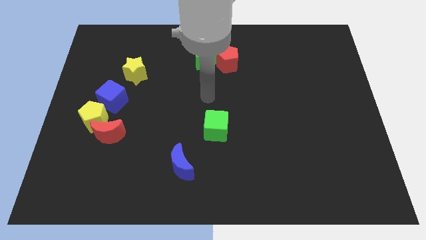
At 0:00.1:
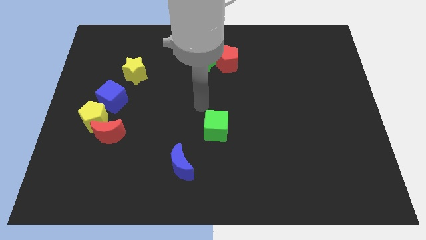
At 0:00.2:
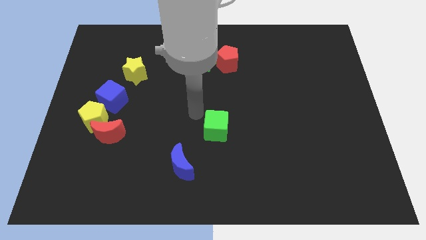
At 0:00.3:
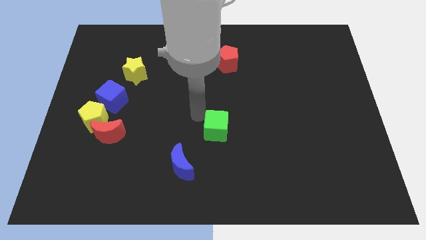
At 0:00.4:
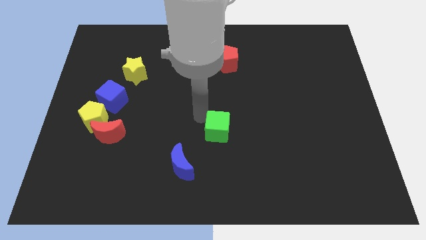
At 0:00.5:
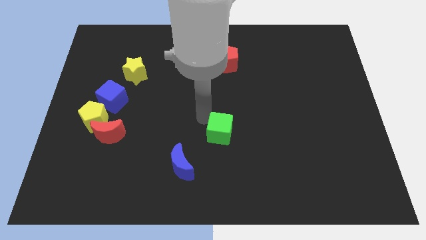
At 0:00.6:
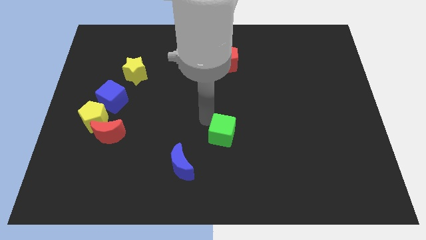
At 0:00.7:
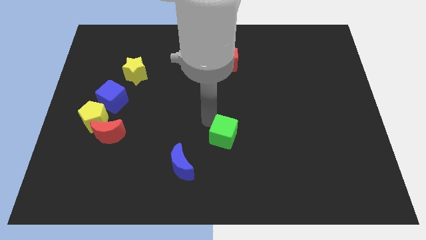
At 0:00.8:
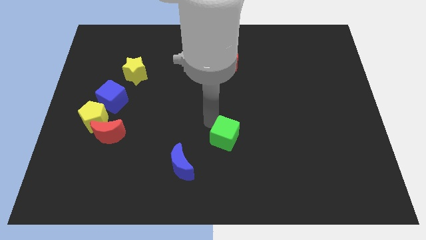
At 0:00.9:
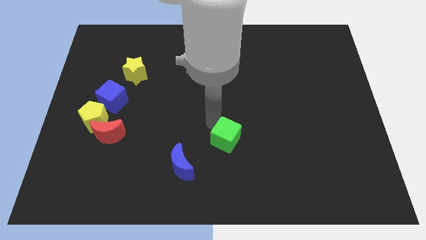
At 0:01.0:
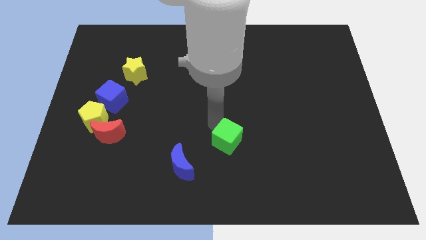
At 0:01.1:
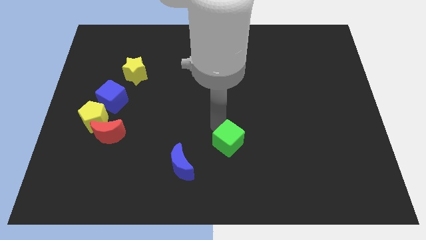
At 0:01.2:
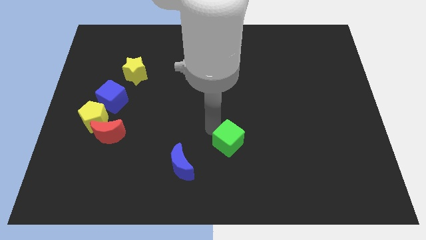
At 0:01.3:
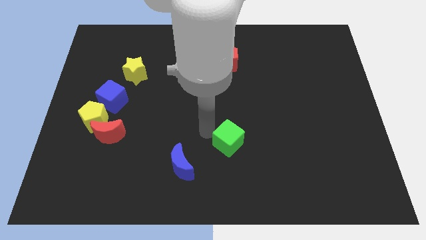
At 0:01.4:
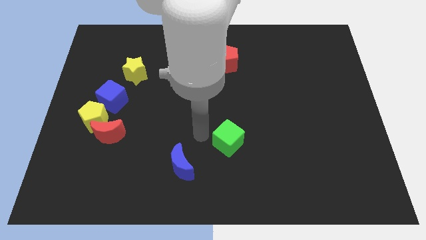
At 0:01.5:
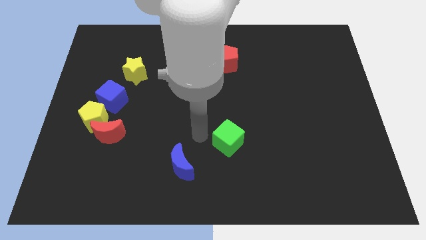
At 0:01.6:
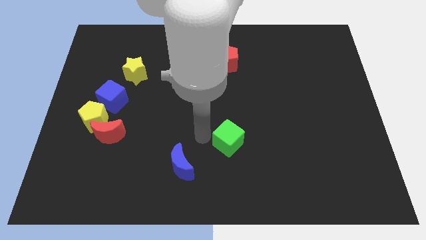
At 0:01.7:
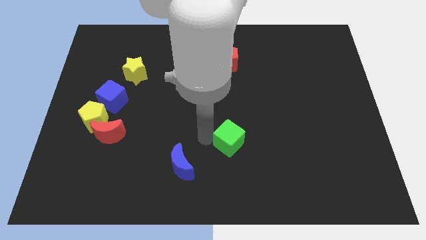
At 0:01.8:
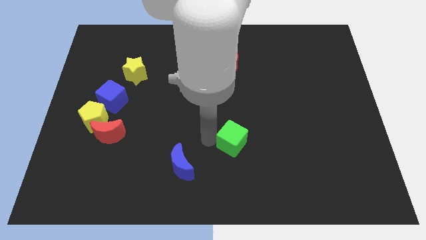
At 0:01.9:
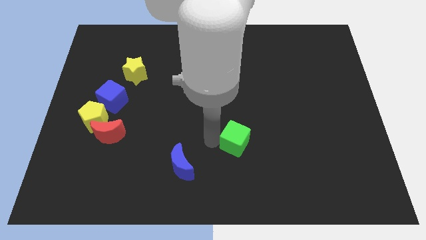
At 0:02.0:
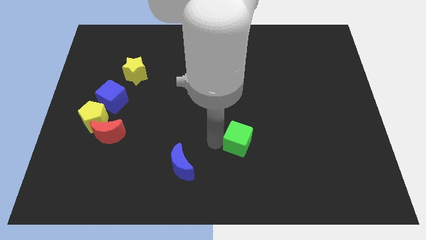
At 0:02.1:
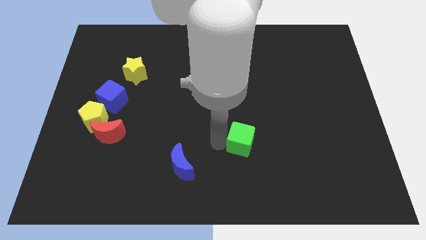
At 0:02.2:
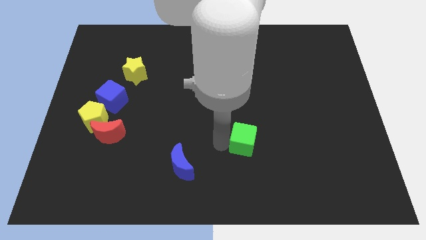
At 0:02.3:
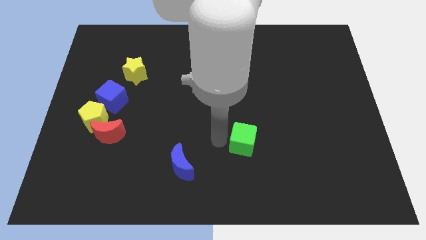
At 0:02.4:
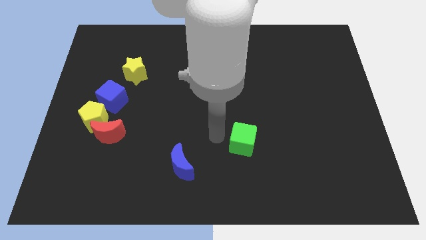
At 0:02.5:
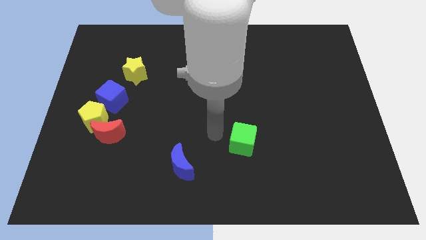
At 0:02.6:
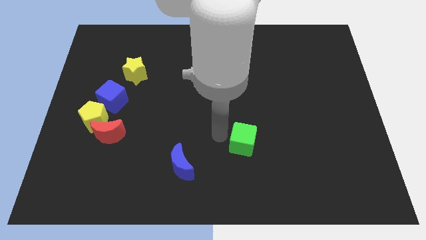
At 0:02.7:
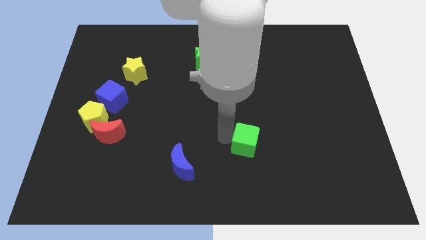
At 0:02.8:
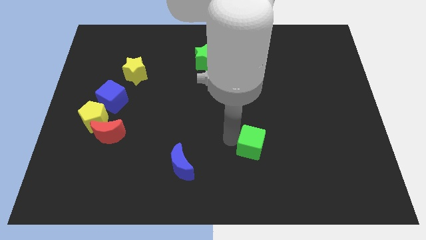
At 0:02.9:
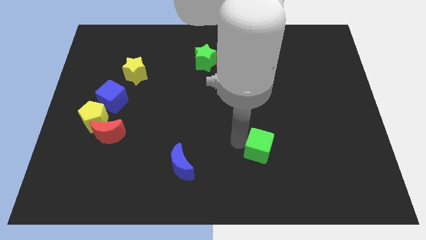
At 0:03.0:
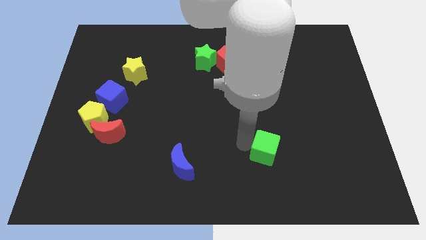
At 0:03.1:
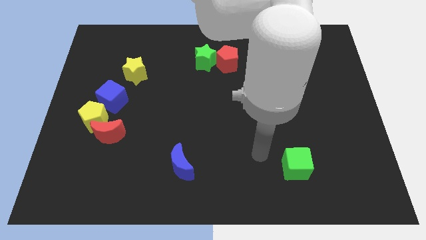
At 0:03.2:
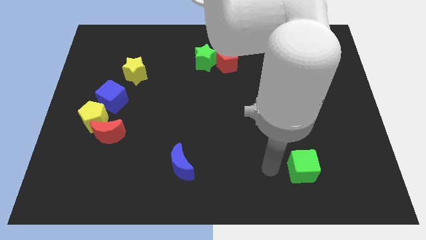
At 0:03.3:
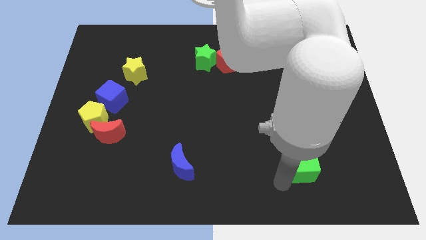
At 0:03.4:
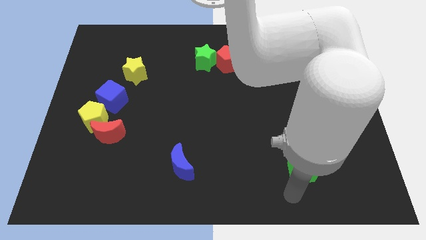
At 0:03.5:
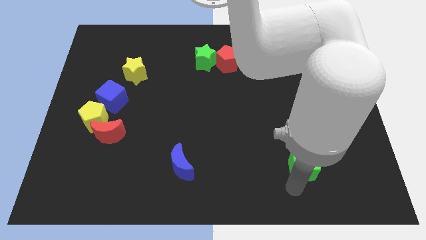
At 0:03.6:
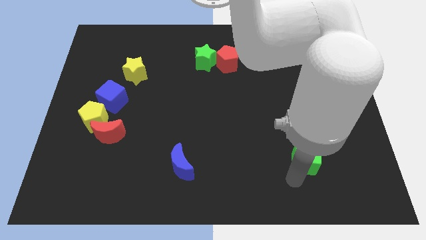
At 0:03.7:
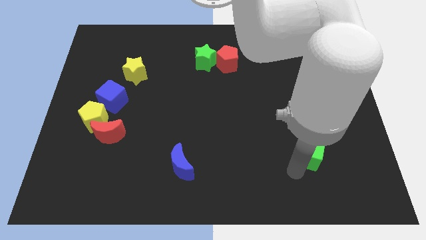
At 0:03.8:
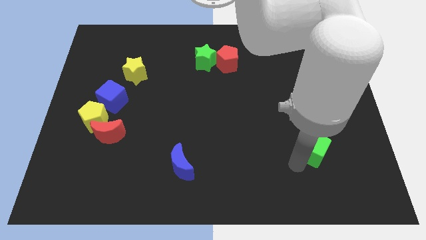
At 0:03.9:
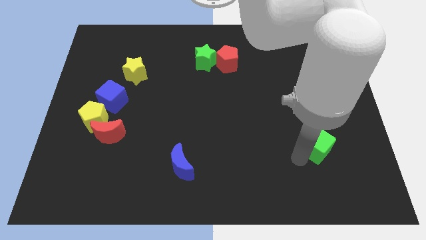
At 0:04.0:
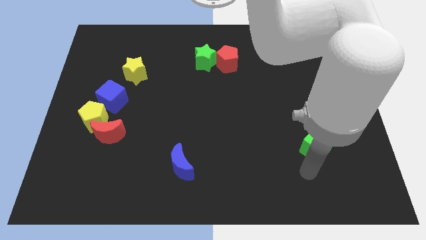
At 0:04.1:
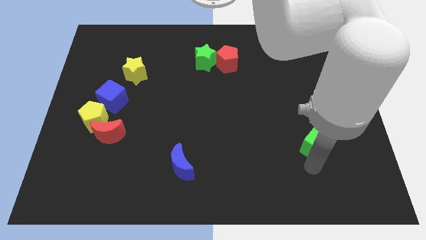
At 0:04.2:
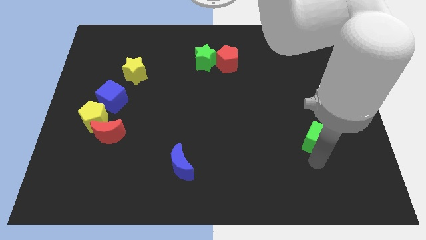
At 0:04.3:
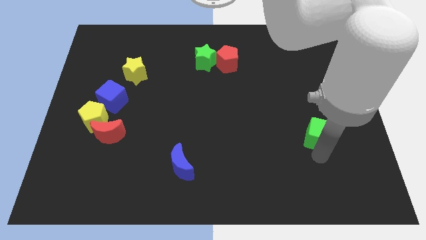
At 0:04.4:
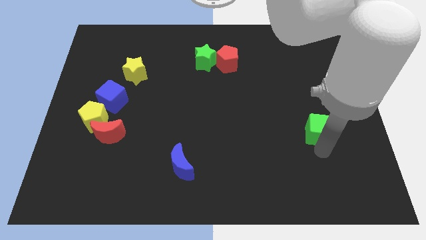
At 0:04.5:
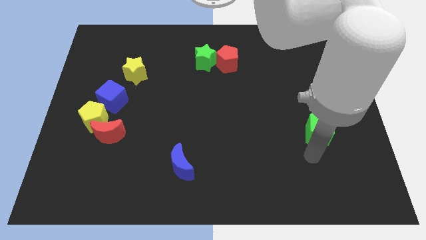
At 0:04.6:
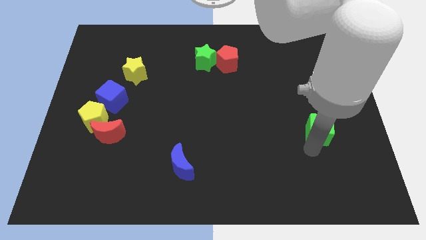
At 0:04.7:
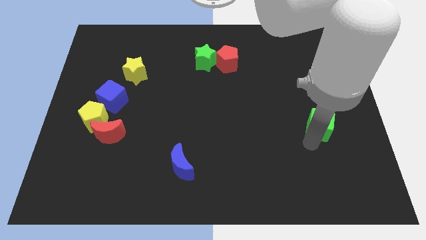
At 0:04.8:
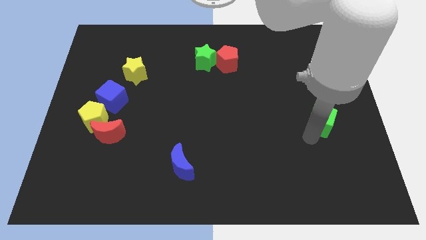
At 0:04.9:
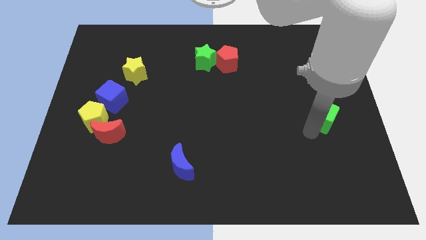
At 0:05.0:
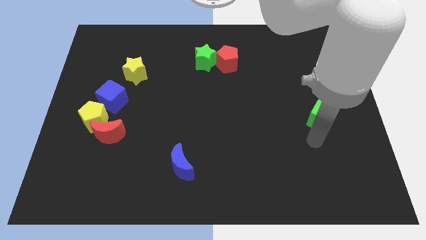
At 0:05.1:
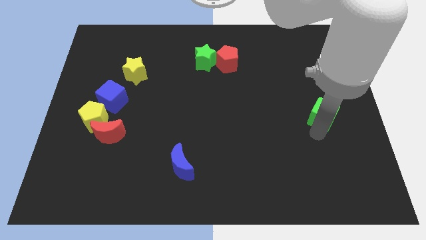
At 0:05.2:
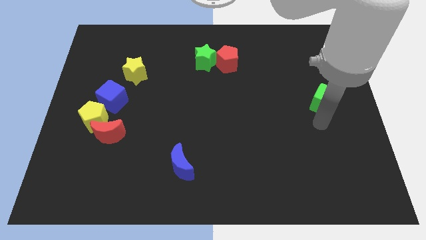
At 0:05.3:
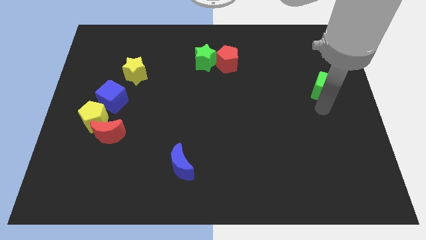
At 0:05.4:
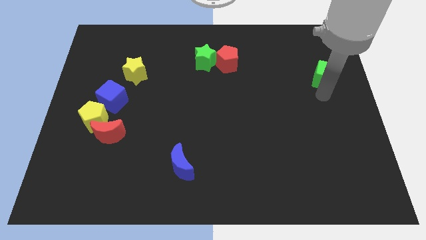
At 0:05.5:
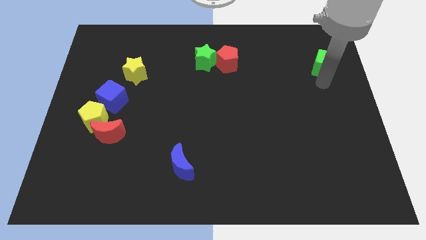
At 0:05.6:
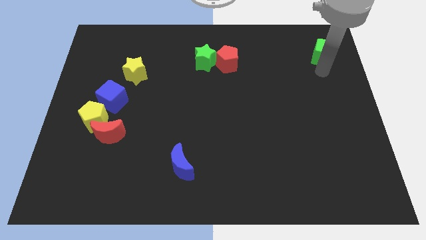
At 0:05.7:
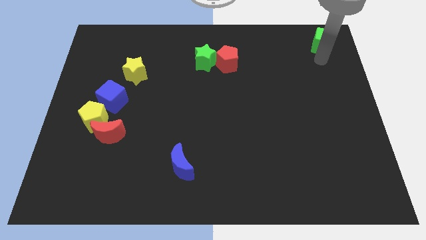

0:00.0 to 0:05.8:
put the green cube to the top right corner
